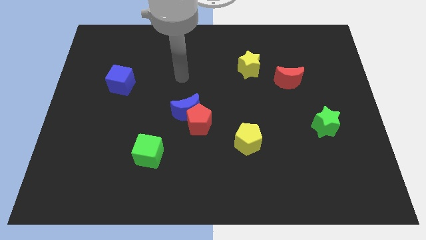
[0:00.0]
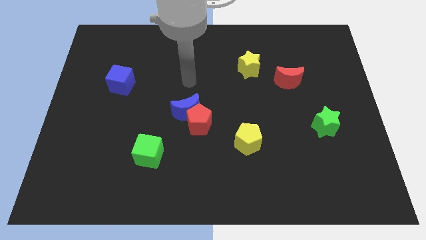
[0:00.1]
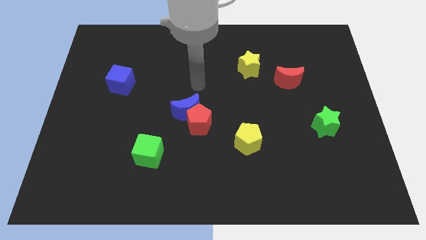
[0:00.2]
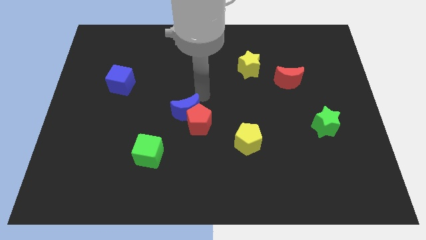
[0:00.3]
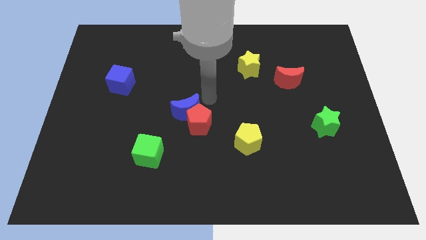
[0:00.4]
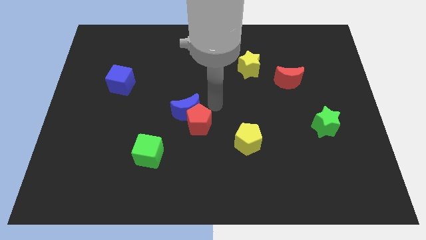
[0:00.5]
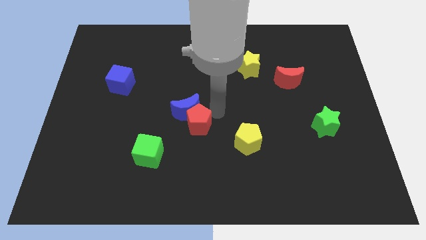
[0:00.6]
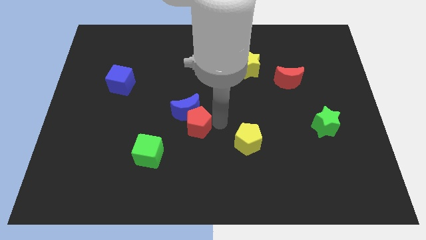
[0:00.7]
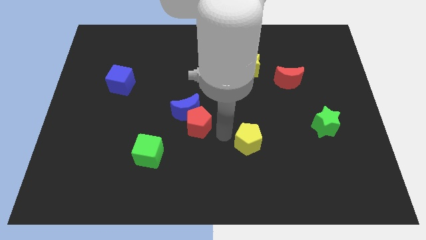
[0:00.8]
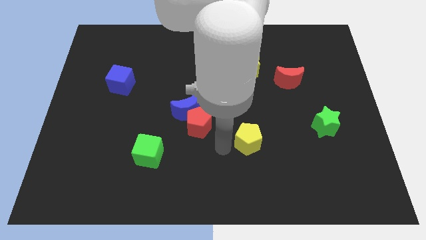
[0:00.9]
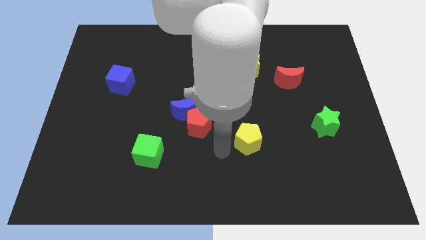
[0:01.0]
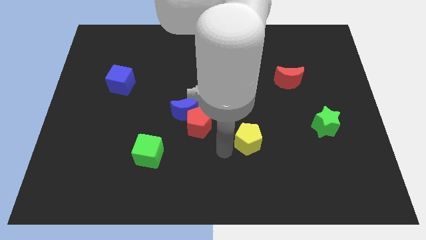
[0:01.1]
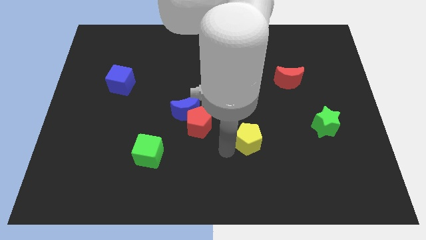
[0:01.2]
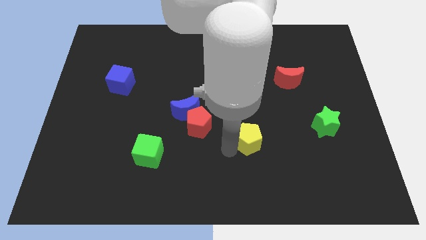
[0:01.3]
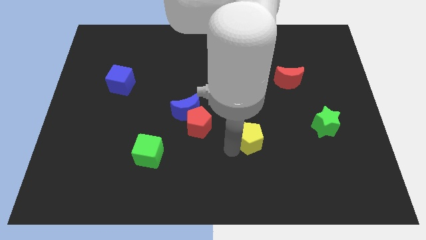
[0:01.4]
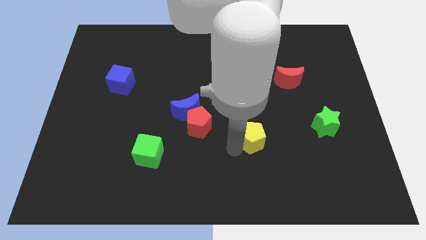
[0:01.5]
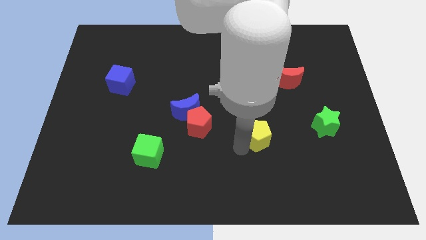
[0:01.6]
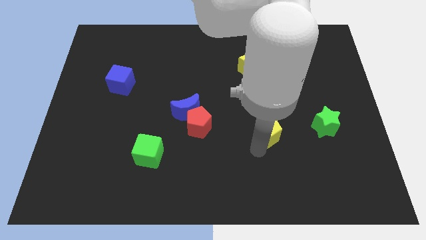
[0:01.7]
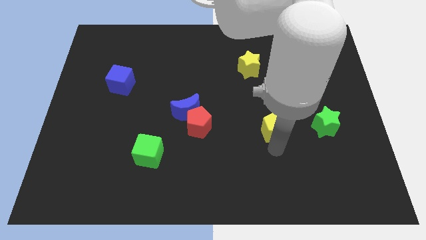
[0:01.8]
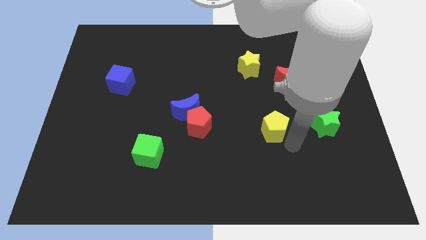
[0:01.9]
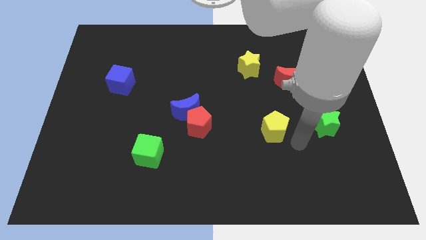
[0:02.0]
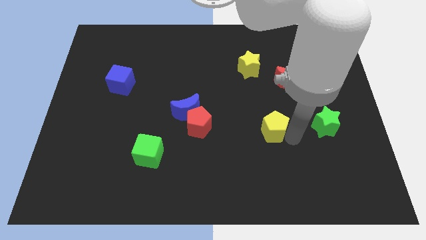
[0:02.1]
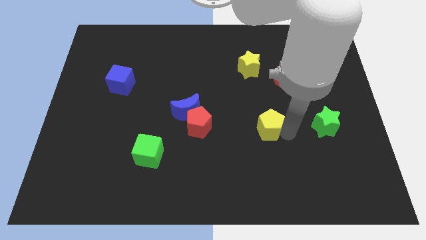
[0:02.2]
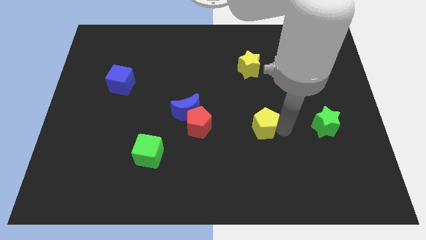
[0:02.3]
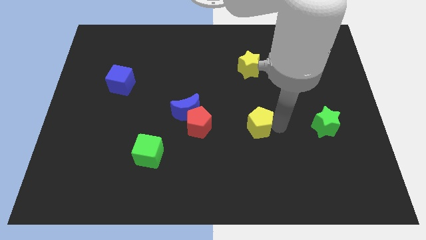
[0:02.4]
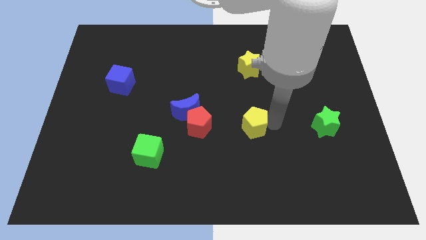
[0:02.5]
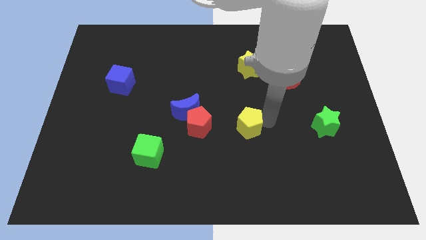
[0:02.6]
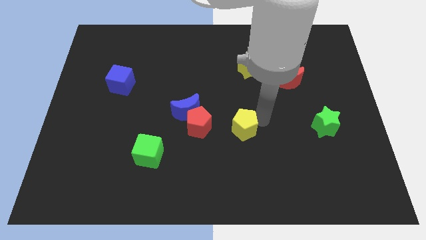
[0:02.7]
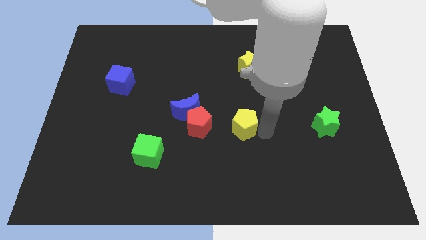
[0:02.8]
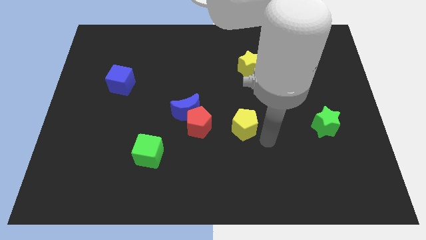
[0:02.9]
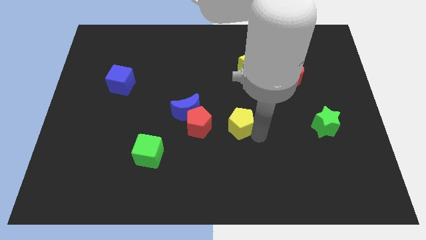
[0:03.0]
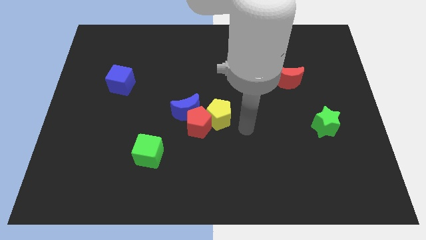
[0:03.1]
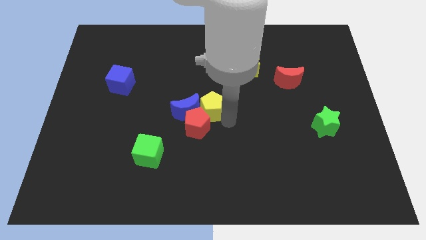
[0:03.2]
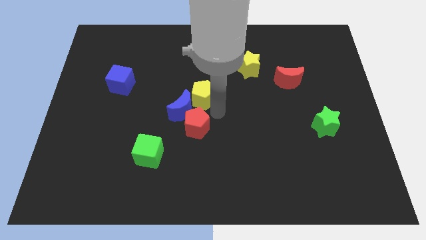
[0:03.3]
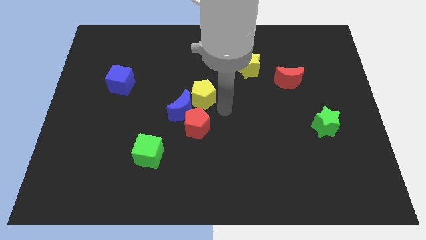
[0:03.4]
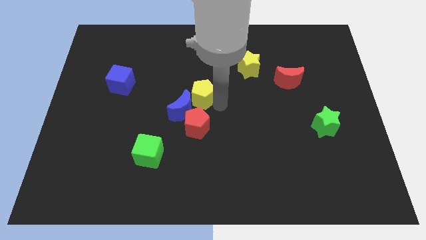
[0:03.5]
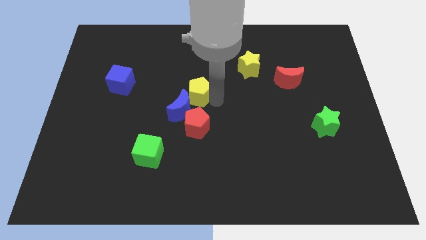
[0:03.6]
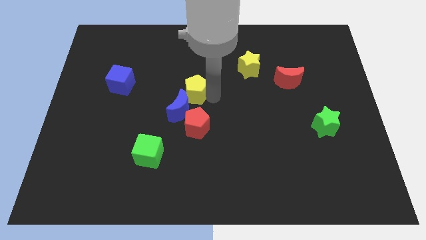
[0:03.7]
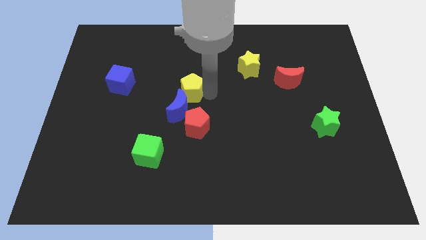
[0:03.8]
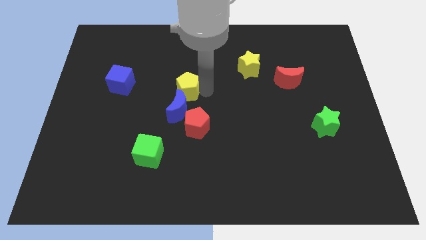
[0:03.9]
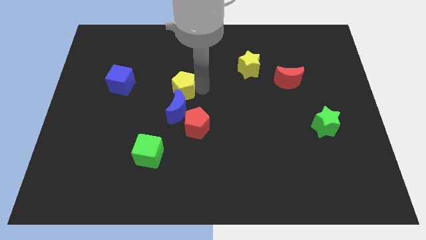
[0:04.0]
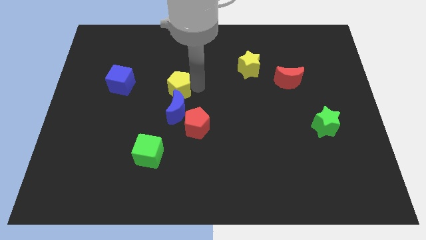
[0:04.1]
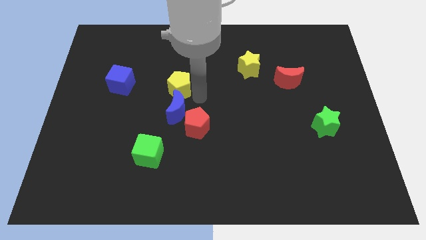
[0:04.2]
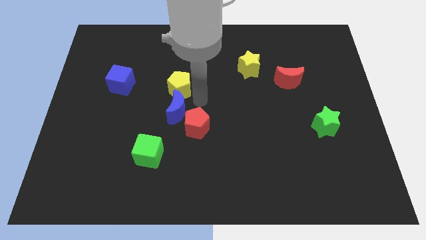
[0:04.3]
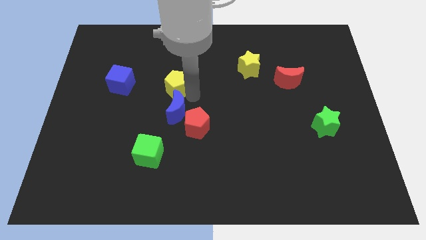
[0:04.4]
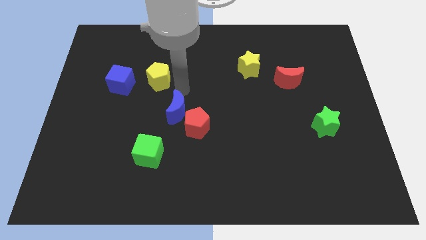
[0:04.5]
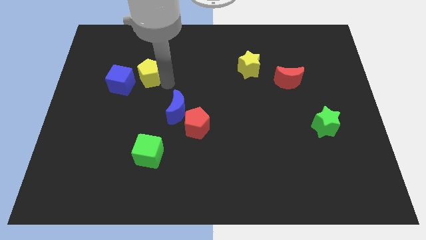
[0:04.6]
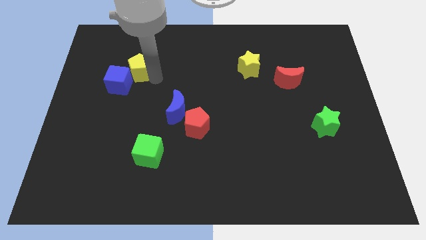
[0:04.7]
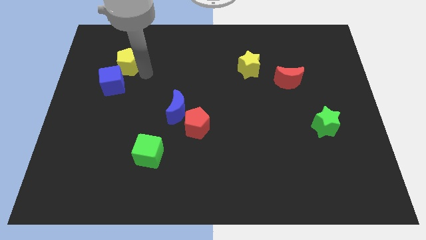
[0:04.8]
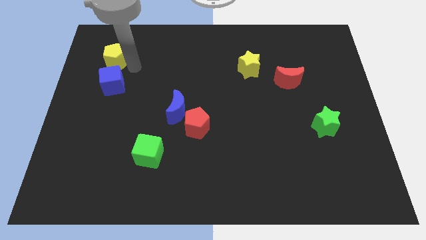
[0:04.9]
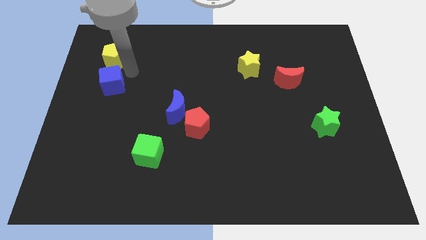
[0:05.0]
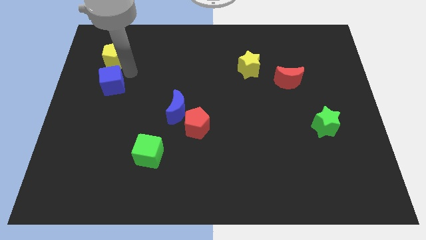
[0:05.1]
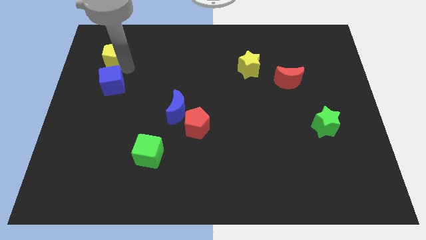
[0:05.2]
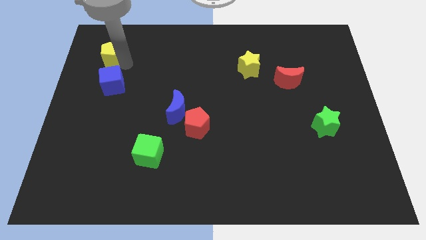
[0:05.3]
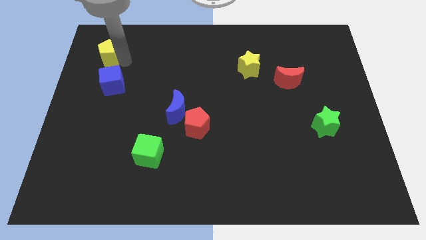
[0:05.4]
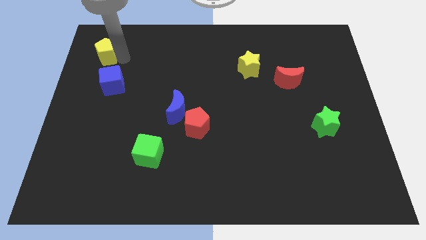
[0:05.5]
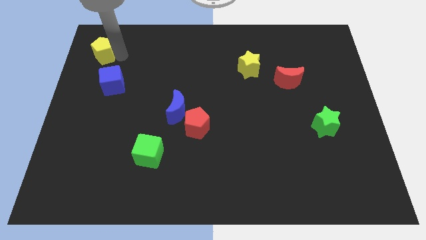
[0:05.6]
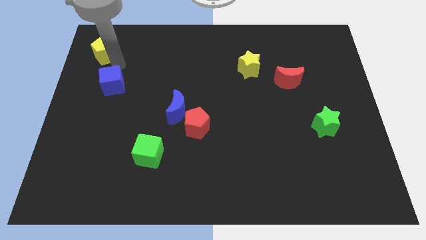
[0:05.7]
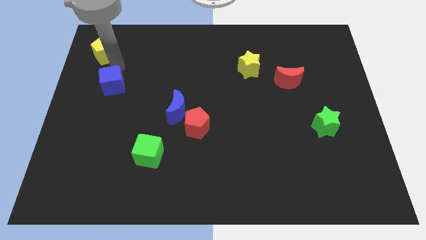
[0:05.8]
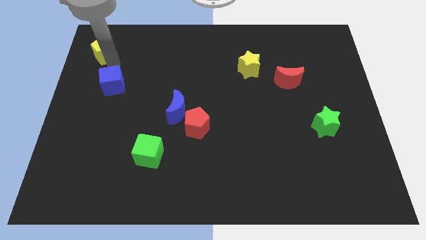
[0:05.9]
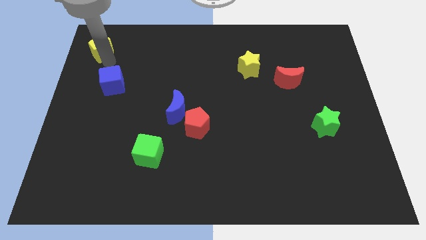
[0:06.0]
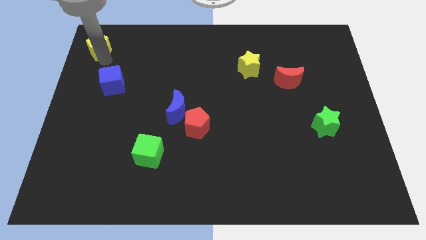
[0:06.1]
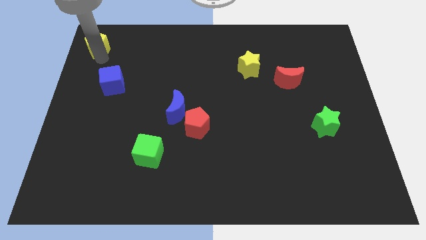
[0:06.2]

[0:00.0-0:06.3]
slide the yellow pentagon to the top left
